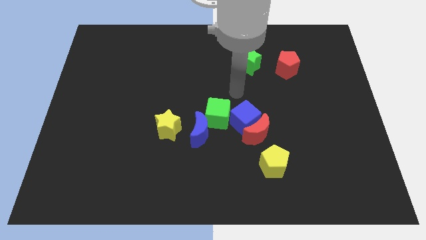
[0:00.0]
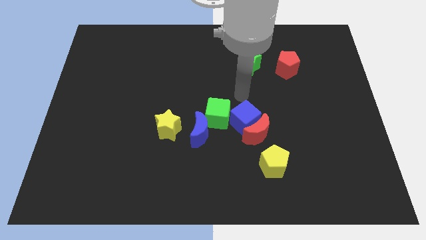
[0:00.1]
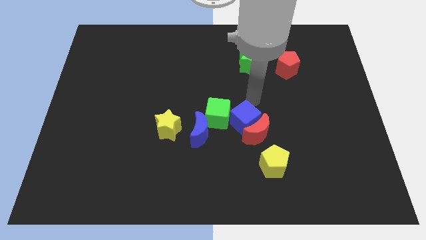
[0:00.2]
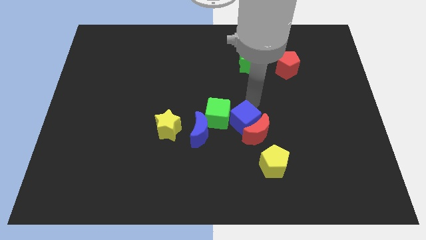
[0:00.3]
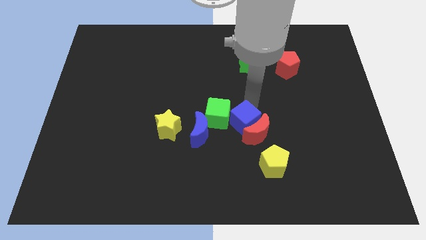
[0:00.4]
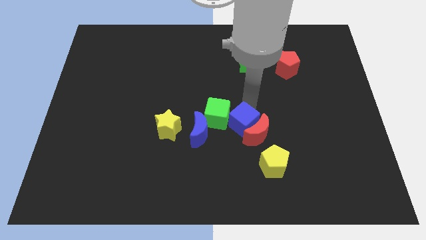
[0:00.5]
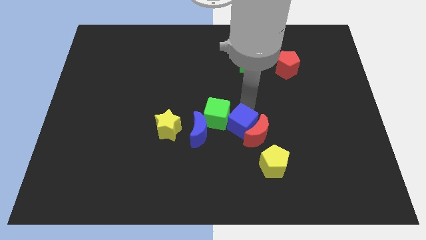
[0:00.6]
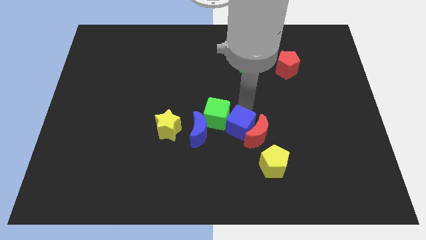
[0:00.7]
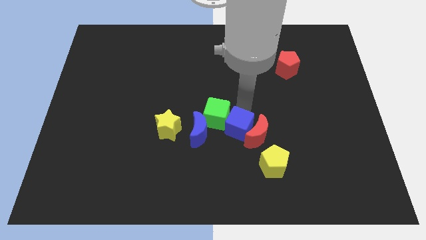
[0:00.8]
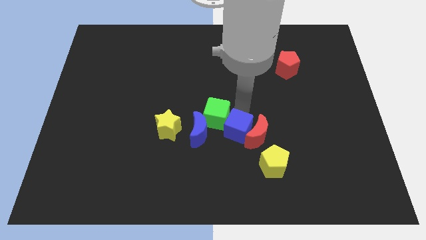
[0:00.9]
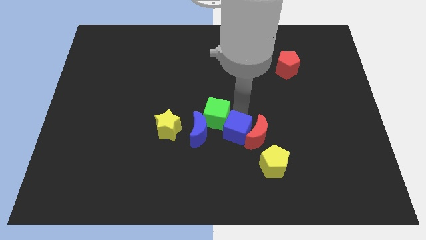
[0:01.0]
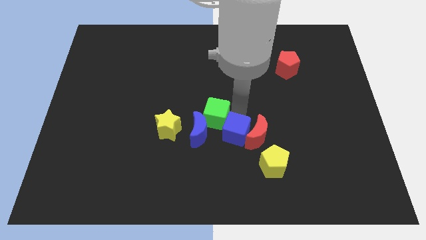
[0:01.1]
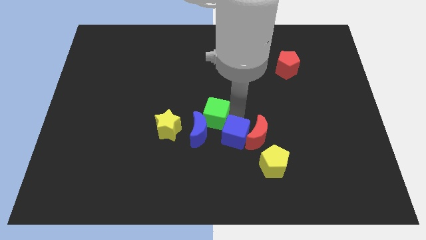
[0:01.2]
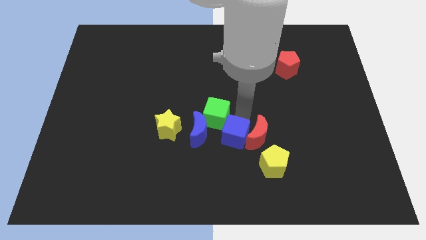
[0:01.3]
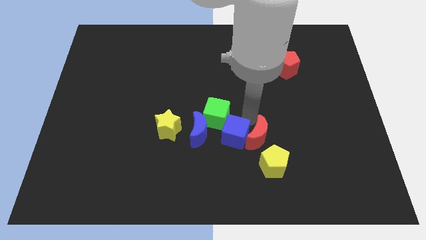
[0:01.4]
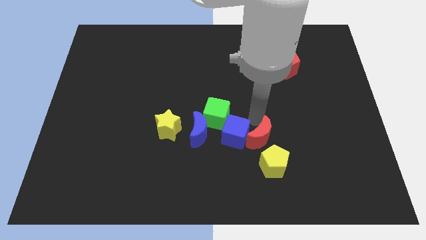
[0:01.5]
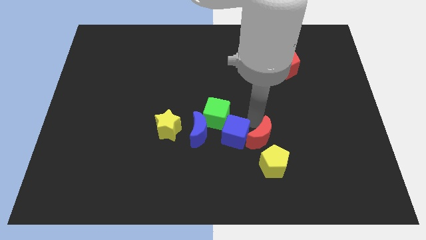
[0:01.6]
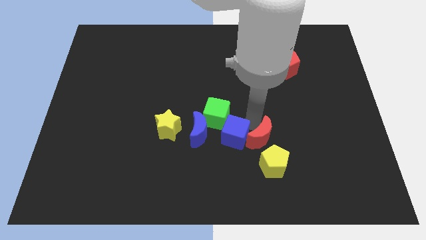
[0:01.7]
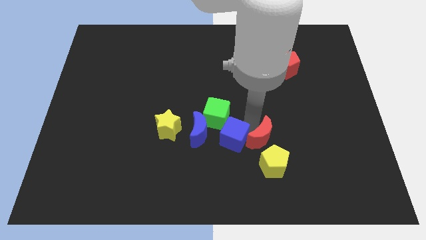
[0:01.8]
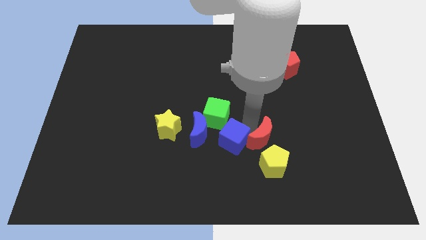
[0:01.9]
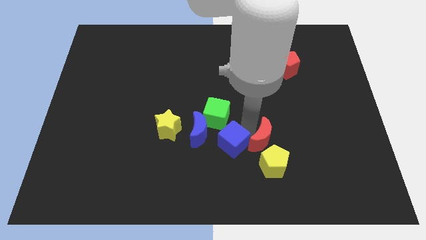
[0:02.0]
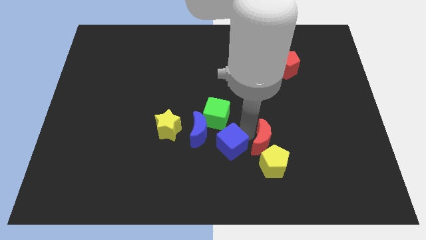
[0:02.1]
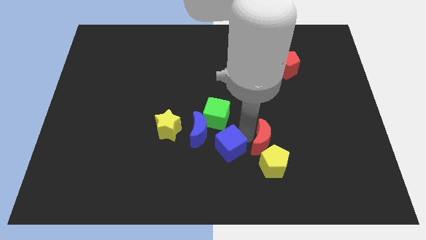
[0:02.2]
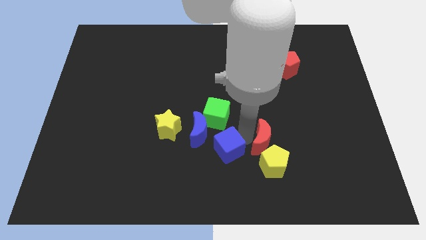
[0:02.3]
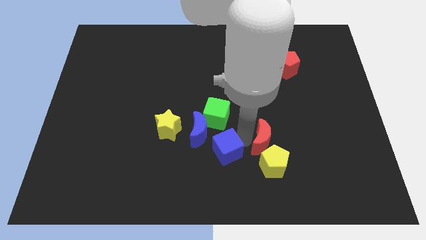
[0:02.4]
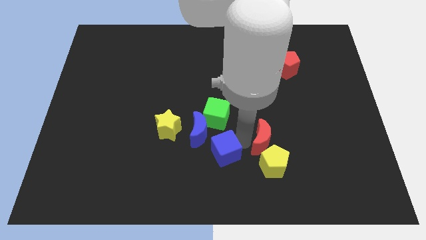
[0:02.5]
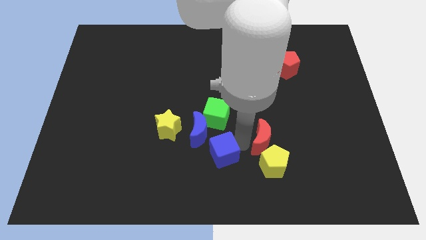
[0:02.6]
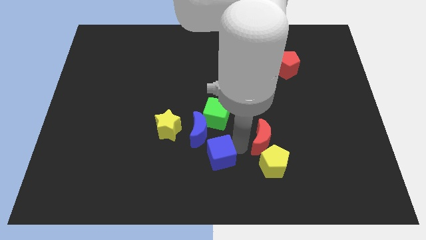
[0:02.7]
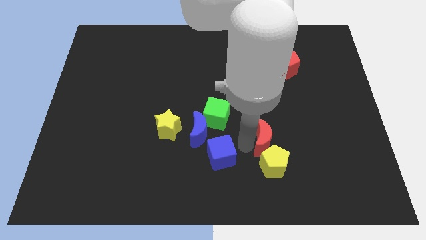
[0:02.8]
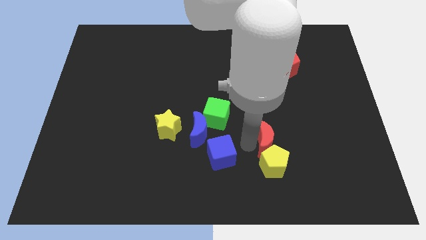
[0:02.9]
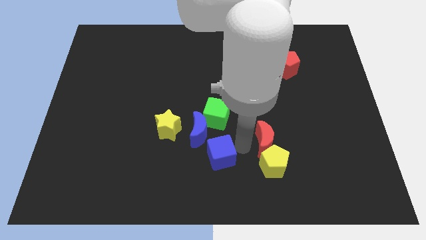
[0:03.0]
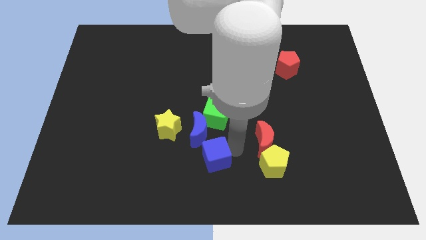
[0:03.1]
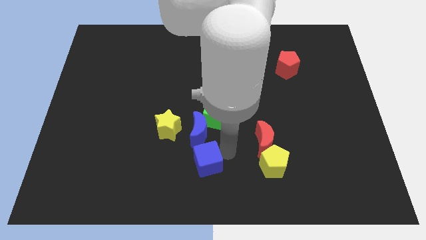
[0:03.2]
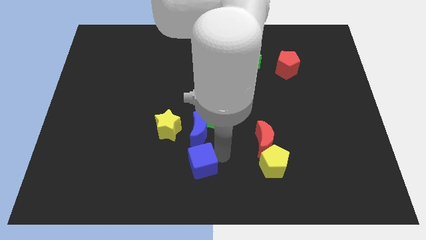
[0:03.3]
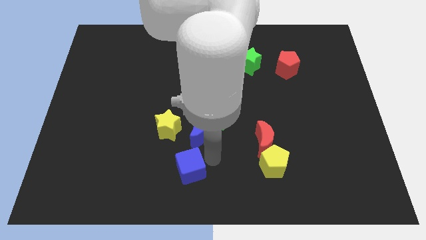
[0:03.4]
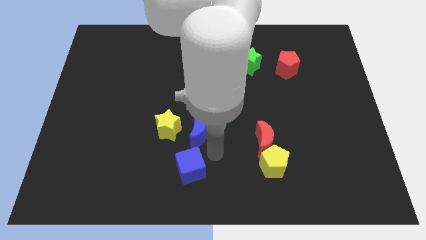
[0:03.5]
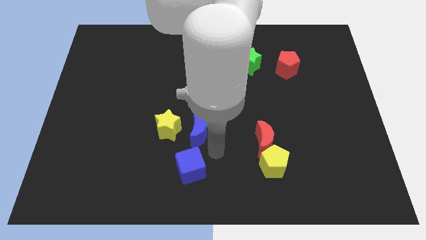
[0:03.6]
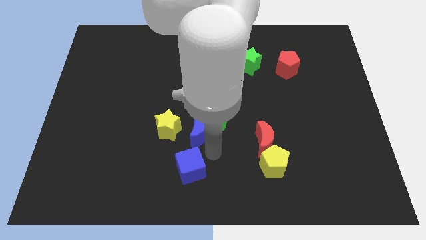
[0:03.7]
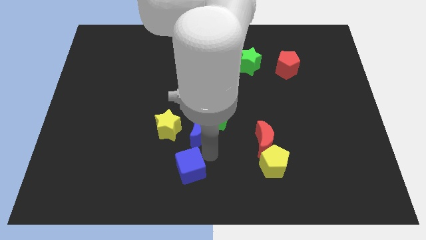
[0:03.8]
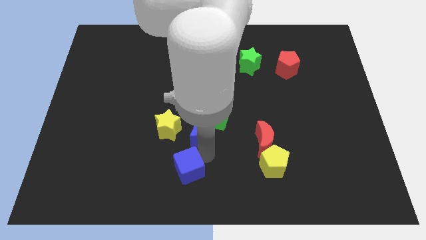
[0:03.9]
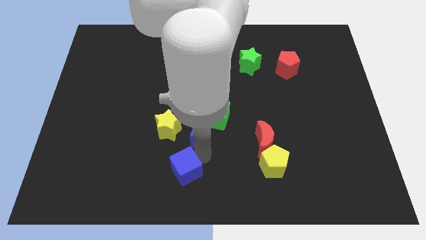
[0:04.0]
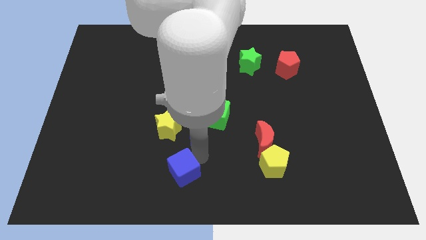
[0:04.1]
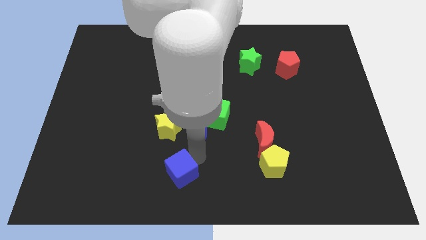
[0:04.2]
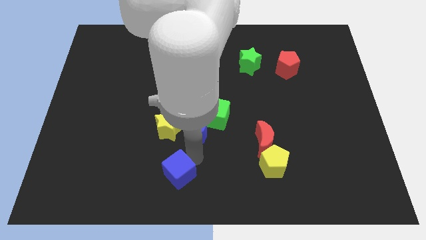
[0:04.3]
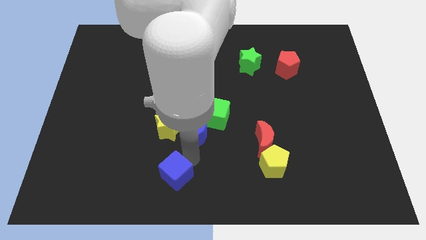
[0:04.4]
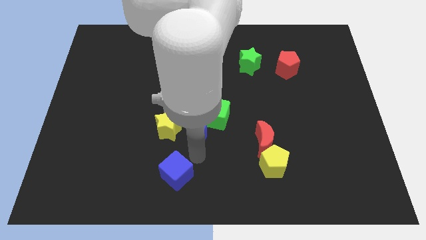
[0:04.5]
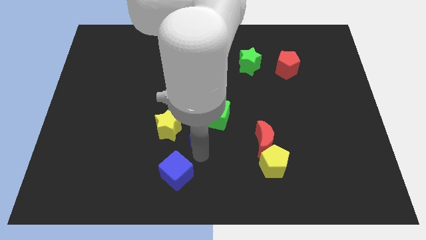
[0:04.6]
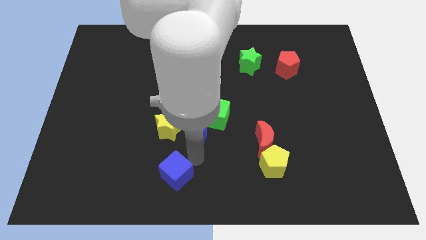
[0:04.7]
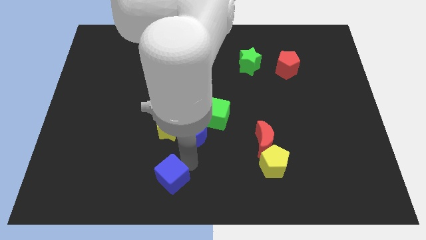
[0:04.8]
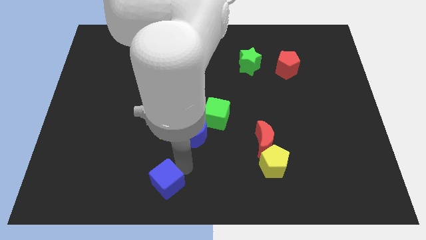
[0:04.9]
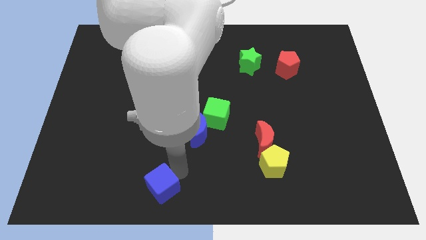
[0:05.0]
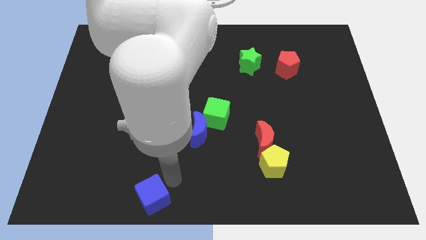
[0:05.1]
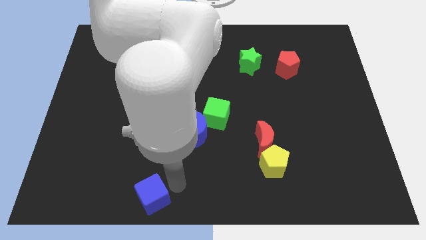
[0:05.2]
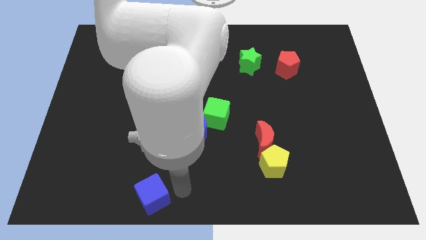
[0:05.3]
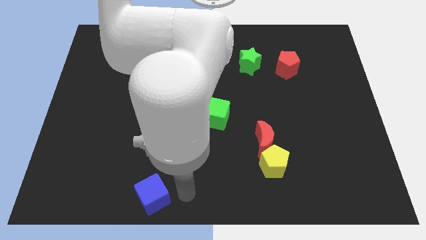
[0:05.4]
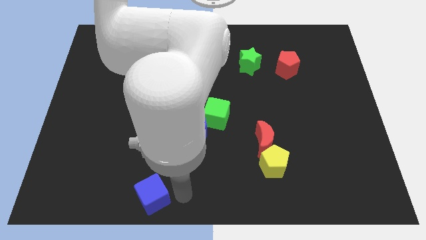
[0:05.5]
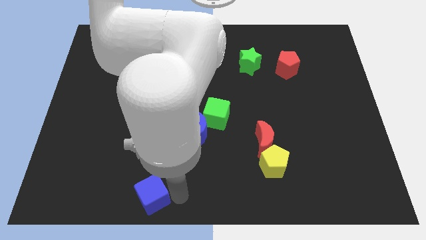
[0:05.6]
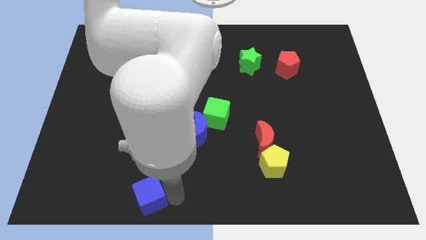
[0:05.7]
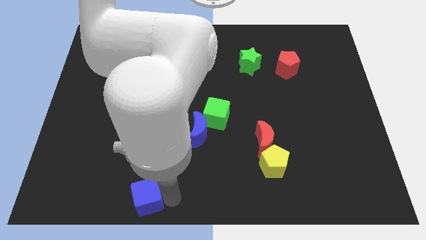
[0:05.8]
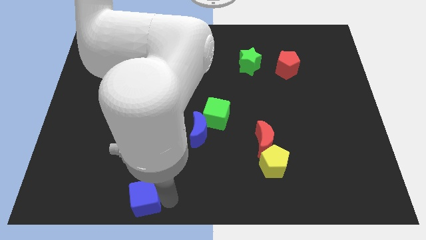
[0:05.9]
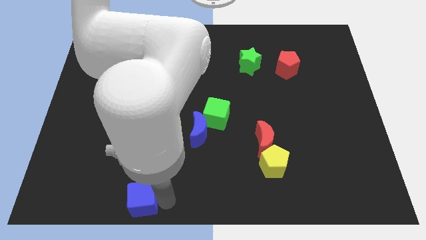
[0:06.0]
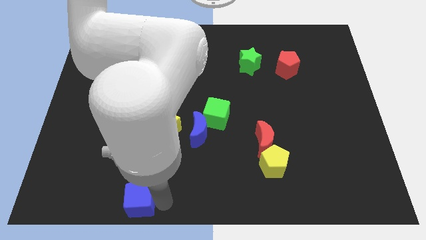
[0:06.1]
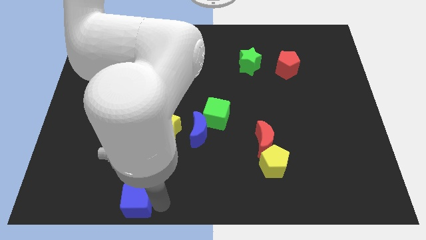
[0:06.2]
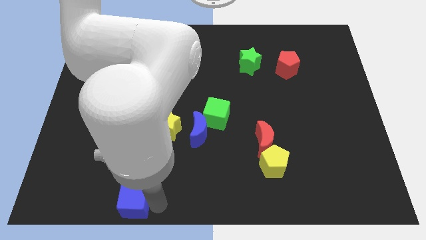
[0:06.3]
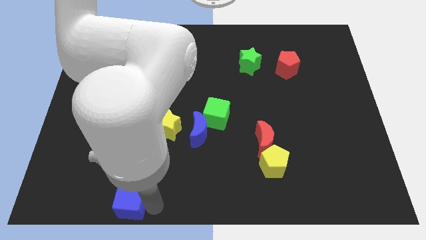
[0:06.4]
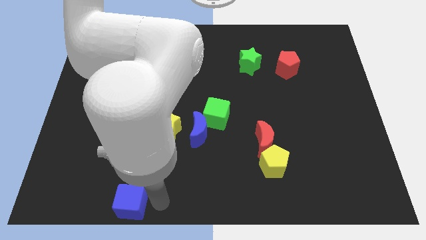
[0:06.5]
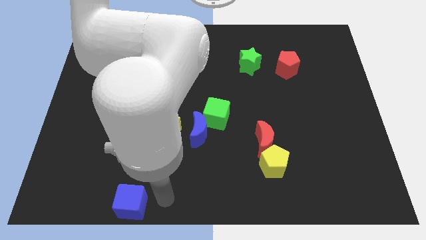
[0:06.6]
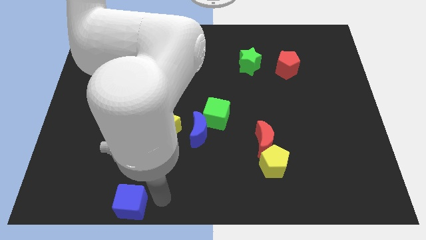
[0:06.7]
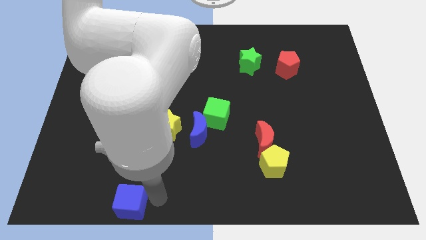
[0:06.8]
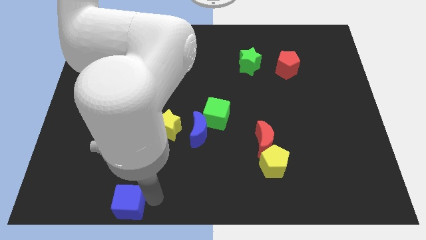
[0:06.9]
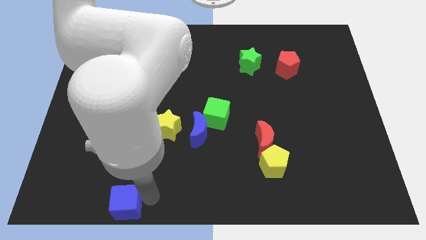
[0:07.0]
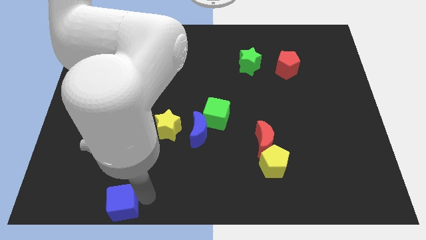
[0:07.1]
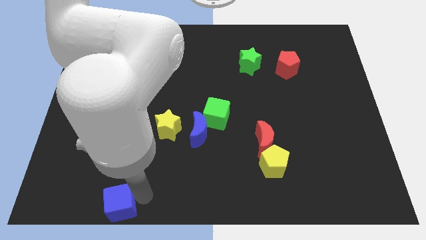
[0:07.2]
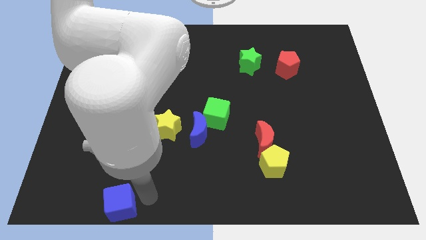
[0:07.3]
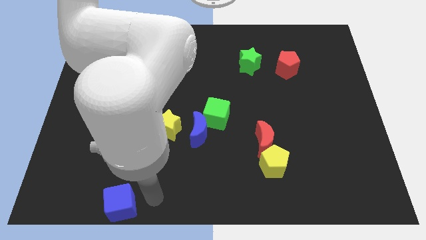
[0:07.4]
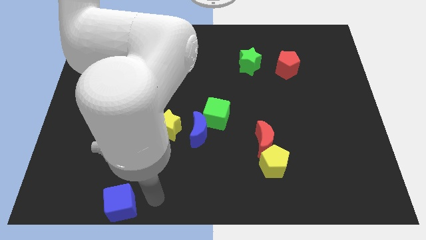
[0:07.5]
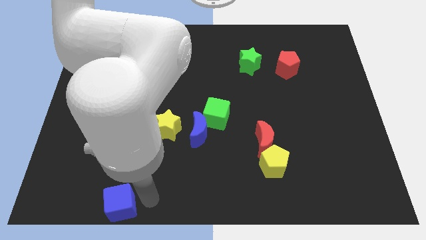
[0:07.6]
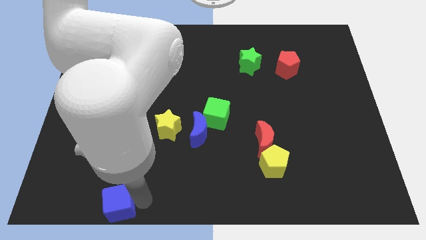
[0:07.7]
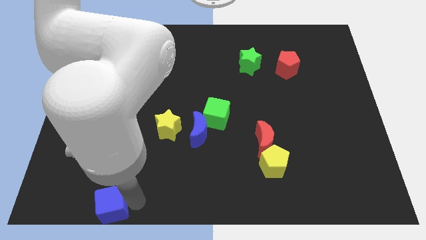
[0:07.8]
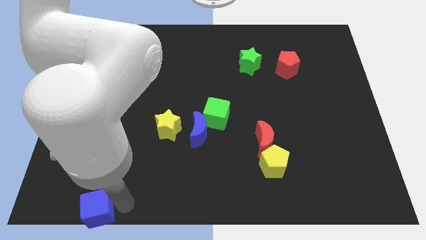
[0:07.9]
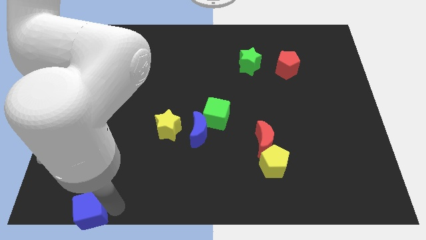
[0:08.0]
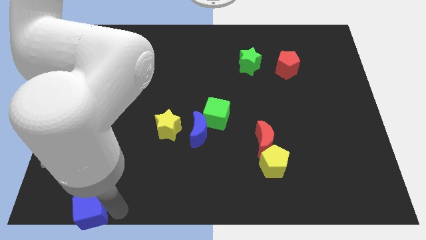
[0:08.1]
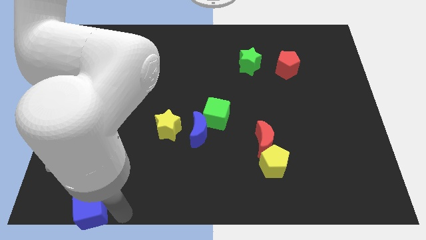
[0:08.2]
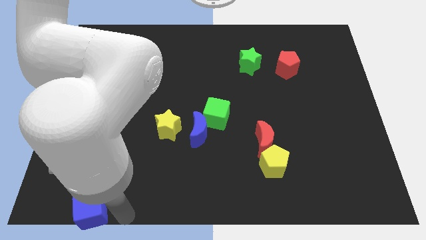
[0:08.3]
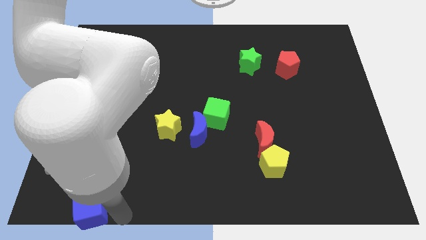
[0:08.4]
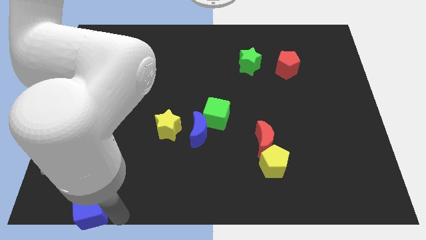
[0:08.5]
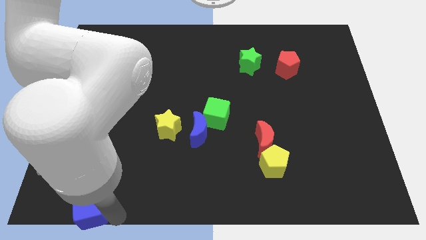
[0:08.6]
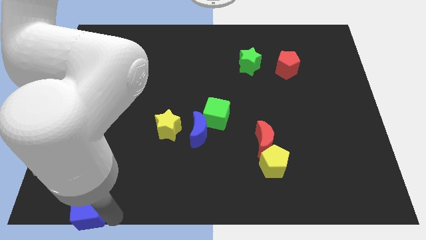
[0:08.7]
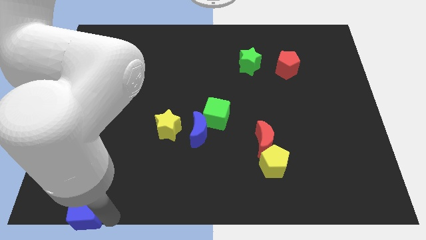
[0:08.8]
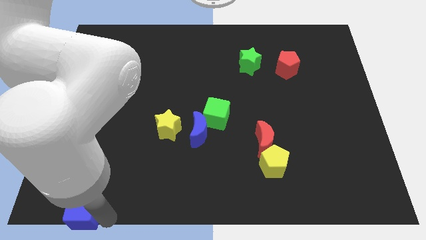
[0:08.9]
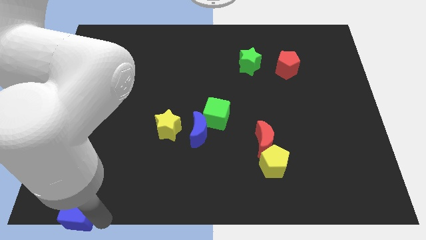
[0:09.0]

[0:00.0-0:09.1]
slide the blue cube to the bottom left corner
